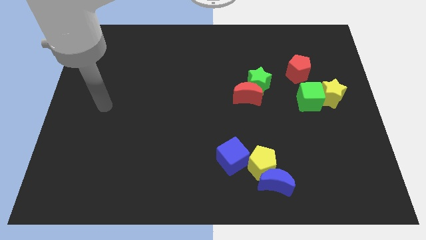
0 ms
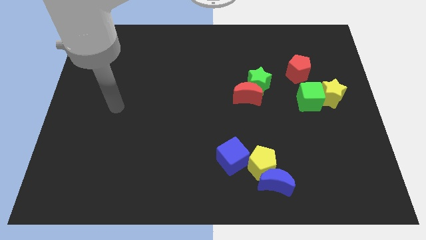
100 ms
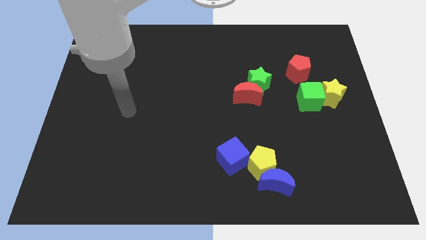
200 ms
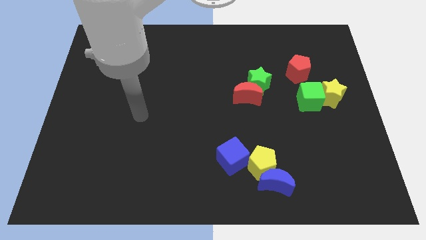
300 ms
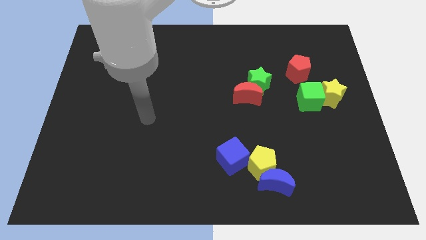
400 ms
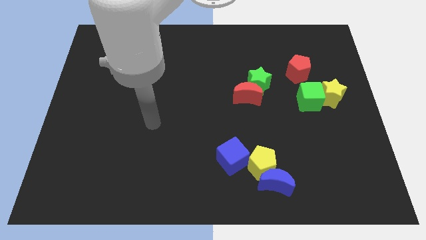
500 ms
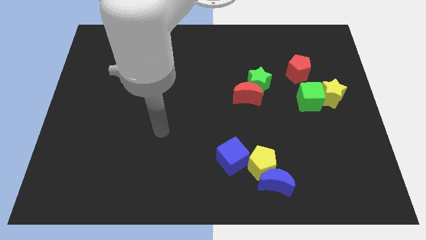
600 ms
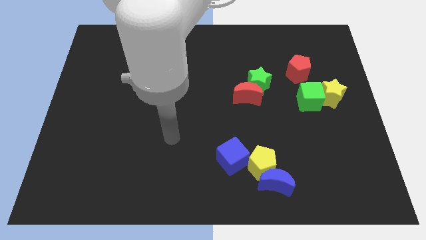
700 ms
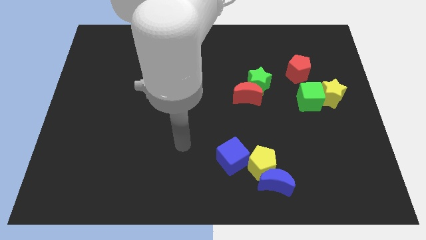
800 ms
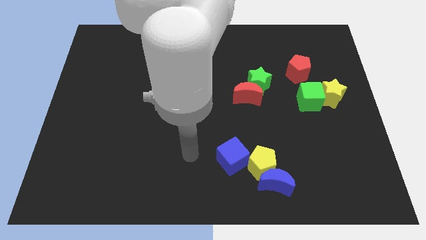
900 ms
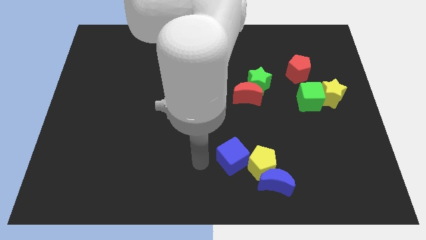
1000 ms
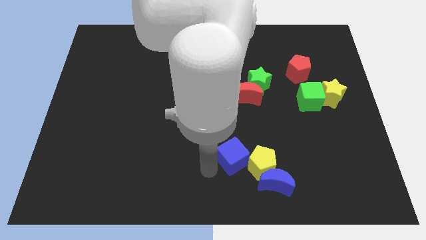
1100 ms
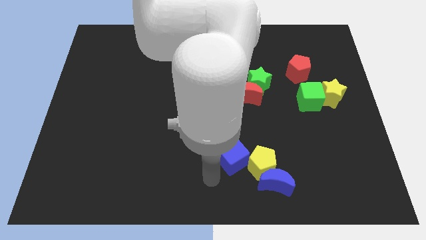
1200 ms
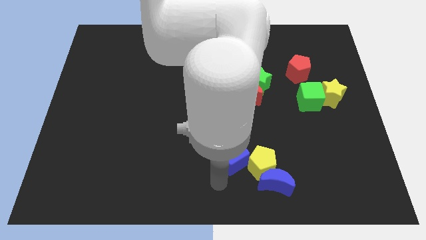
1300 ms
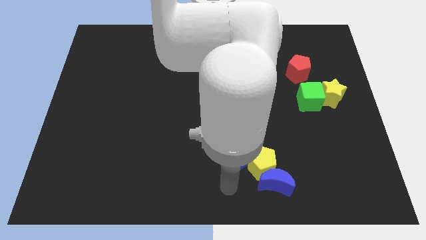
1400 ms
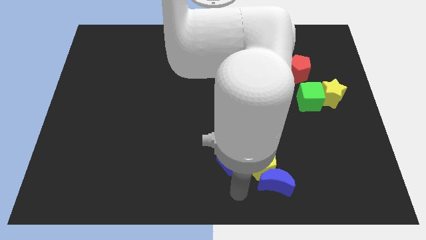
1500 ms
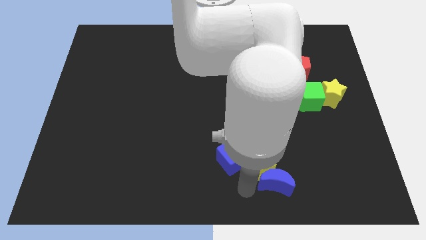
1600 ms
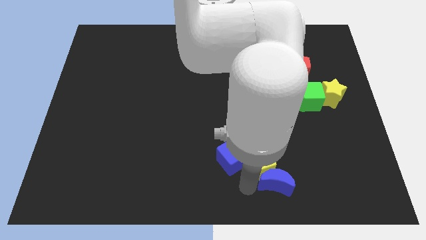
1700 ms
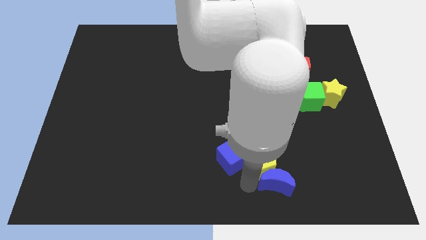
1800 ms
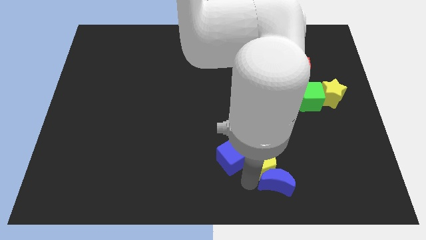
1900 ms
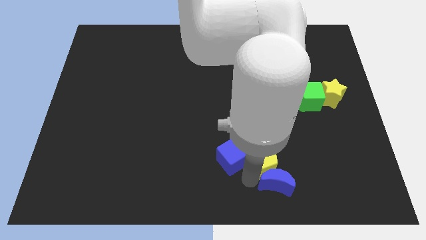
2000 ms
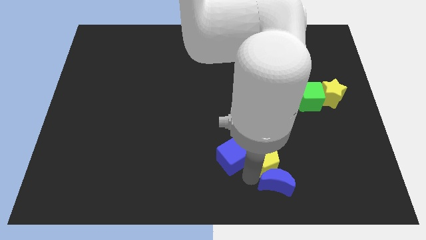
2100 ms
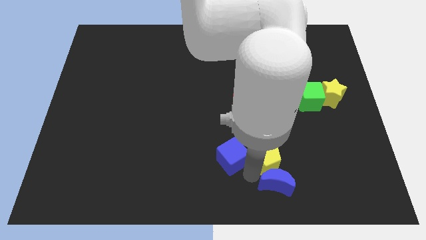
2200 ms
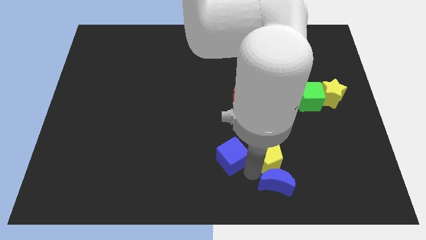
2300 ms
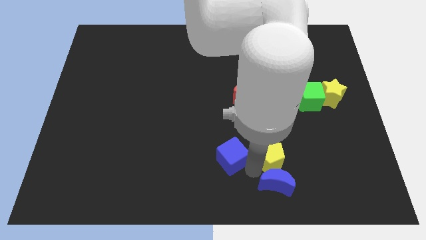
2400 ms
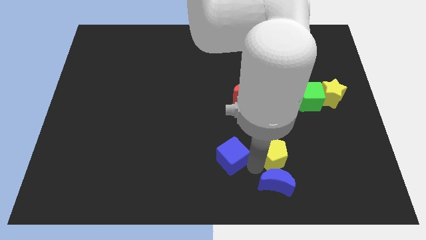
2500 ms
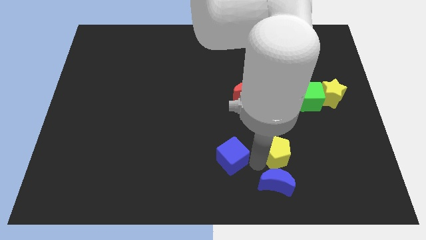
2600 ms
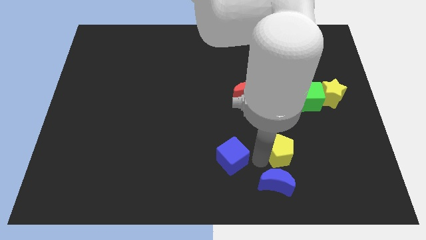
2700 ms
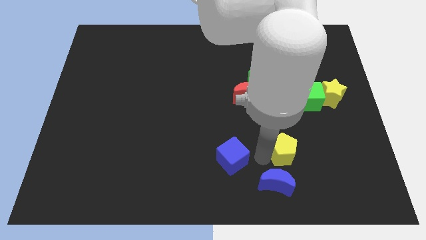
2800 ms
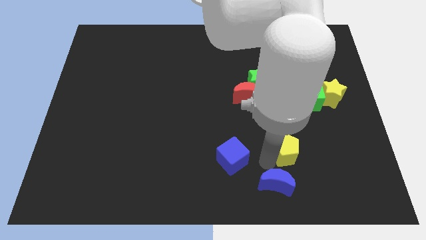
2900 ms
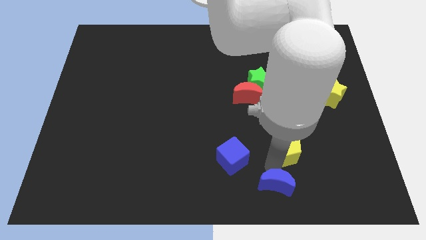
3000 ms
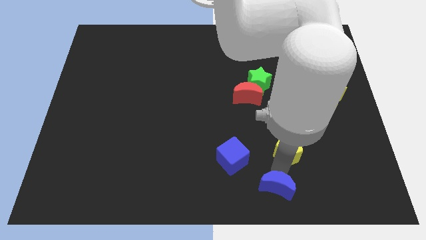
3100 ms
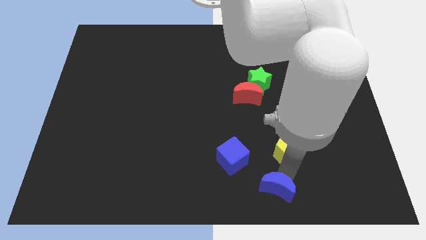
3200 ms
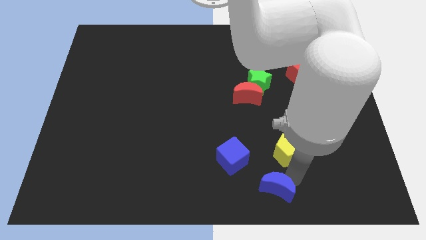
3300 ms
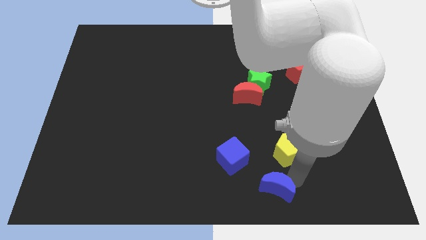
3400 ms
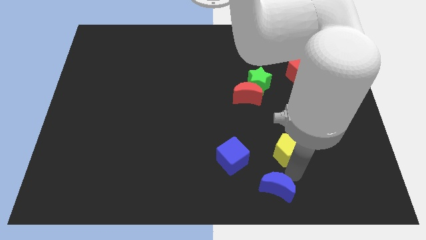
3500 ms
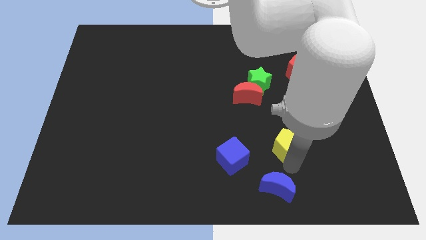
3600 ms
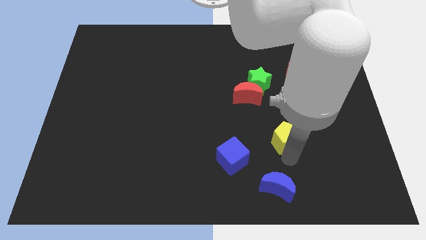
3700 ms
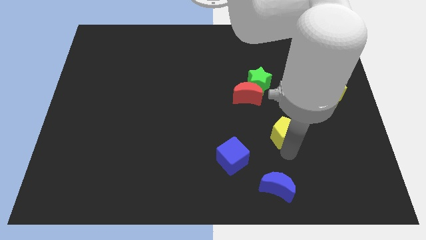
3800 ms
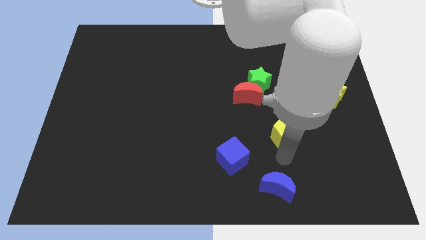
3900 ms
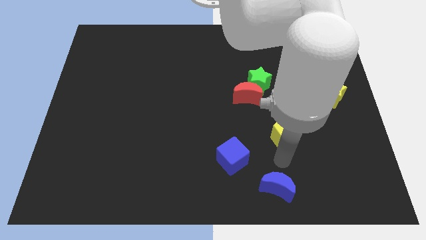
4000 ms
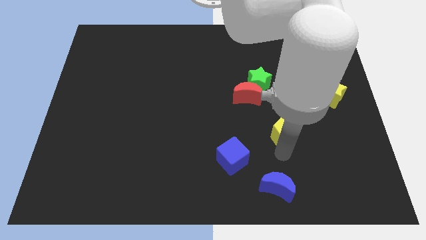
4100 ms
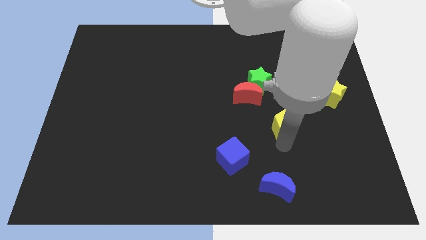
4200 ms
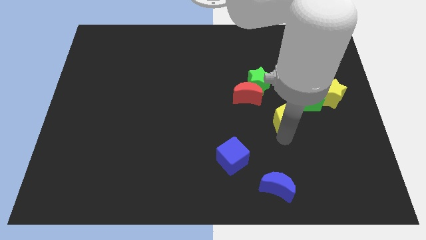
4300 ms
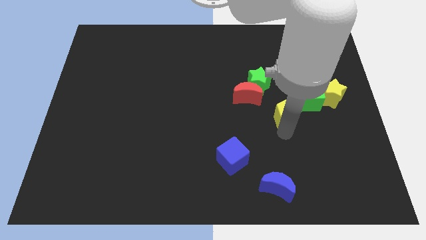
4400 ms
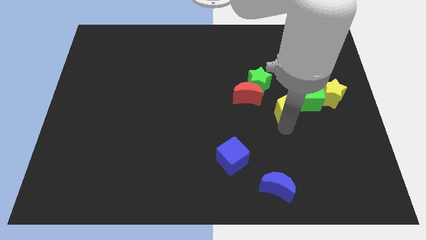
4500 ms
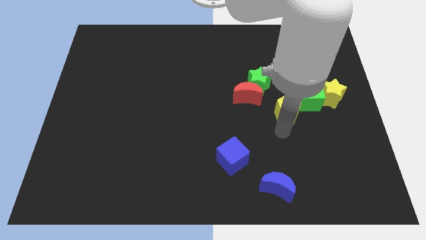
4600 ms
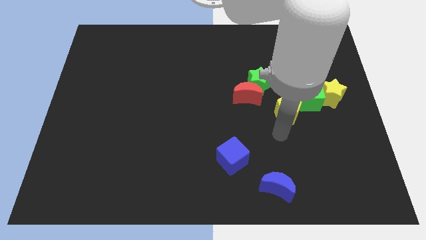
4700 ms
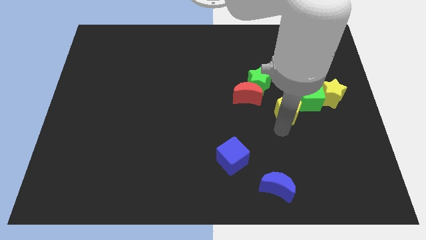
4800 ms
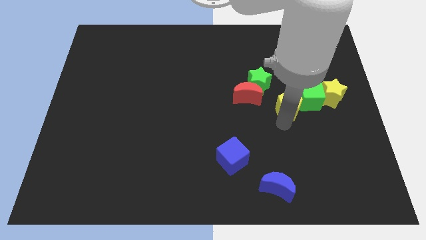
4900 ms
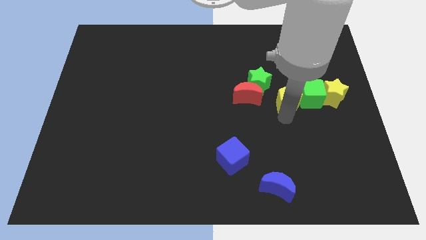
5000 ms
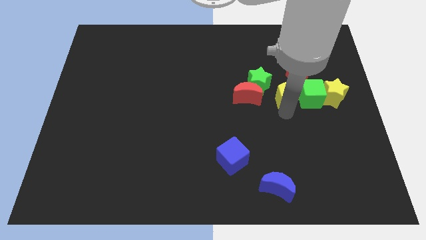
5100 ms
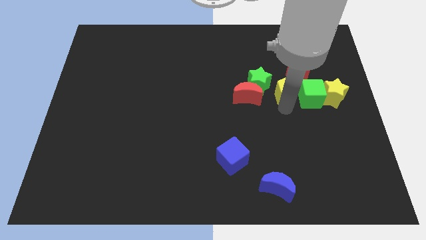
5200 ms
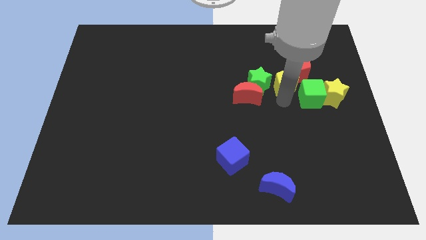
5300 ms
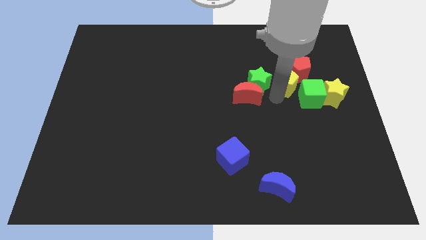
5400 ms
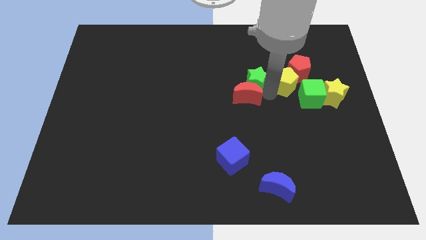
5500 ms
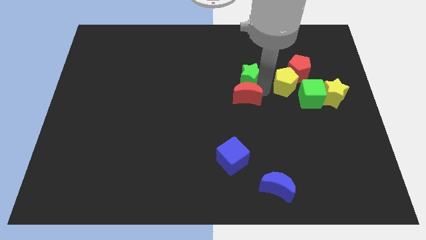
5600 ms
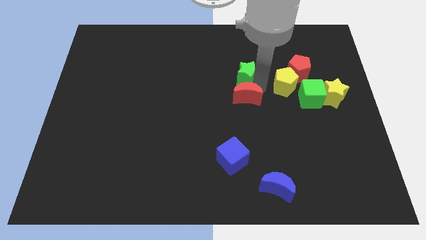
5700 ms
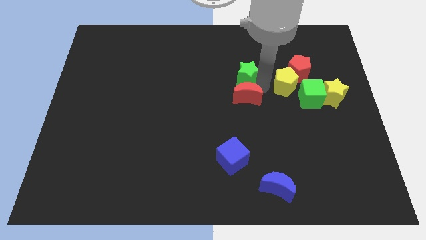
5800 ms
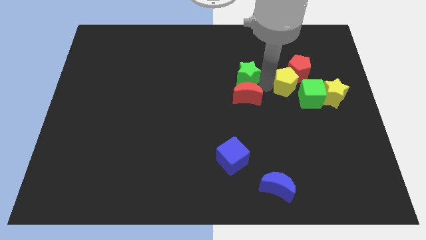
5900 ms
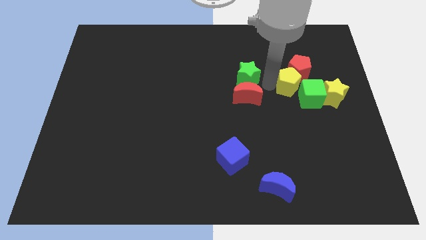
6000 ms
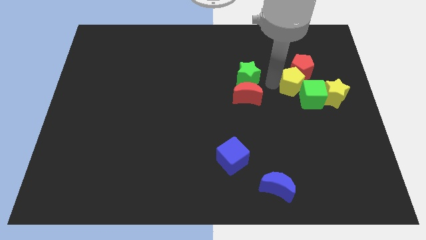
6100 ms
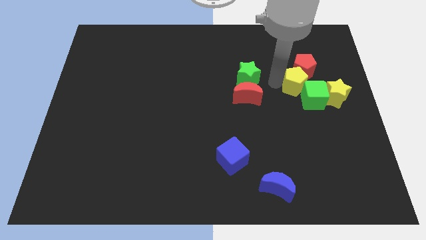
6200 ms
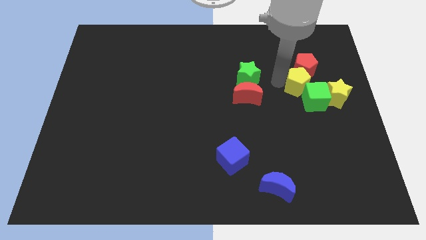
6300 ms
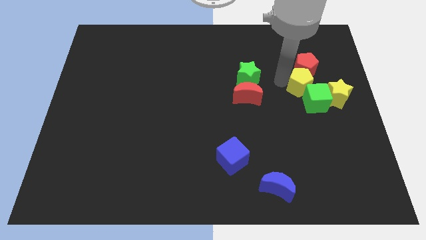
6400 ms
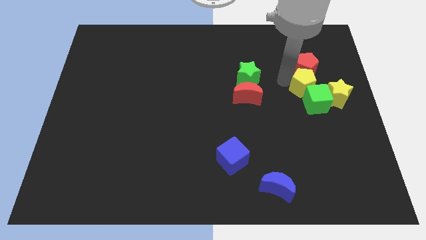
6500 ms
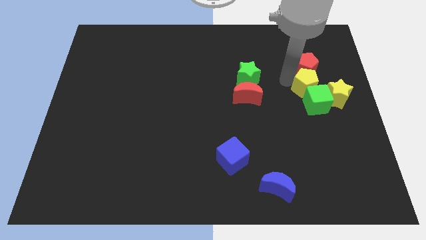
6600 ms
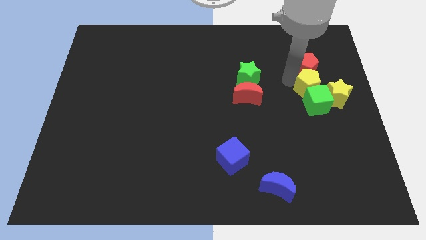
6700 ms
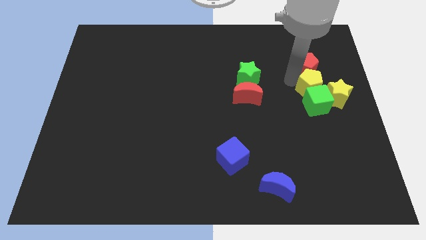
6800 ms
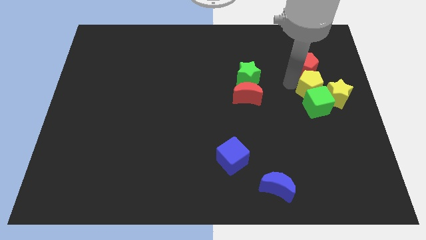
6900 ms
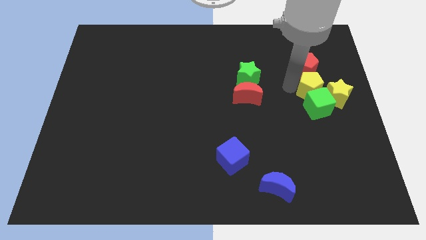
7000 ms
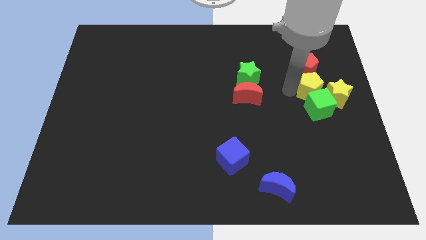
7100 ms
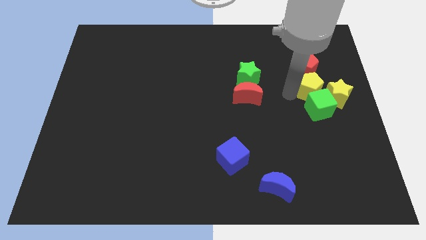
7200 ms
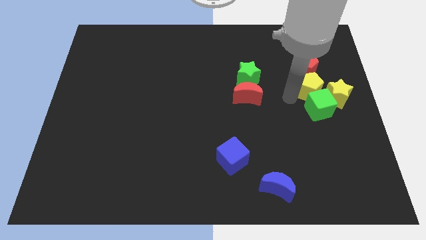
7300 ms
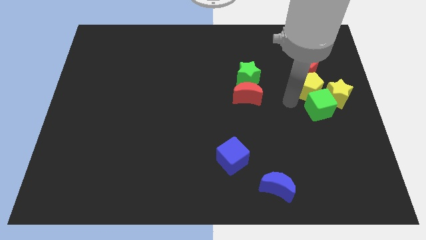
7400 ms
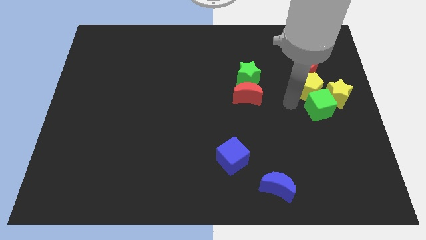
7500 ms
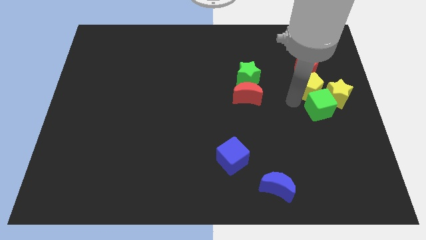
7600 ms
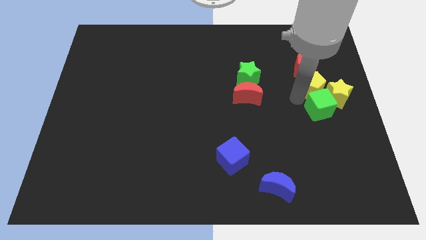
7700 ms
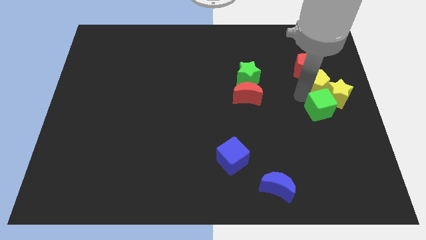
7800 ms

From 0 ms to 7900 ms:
push the yellow pentagon to the top of the yellow star
